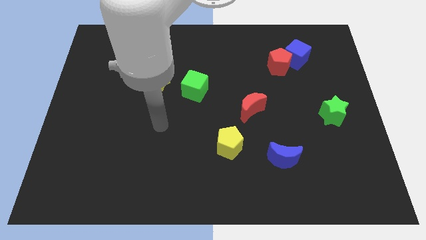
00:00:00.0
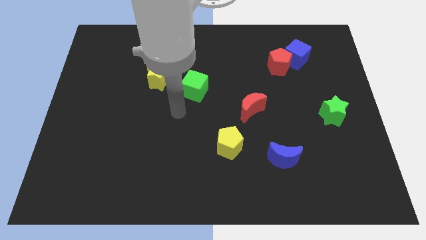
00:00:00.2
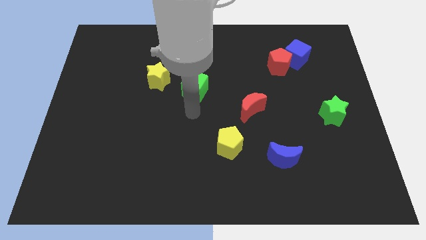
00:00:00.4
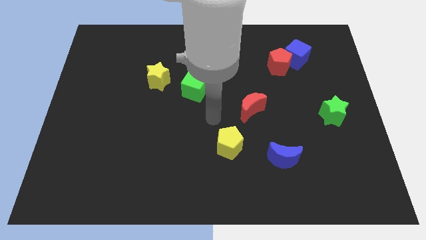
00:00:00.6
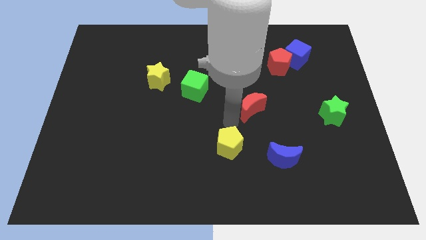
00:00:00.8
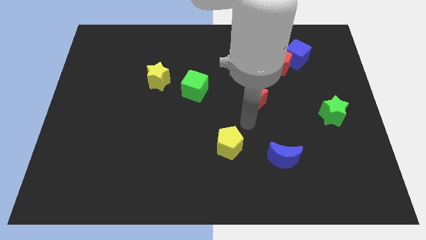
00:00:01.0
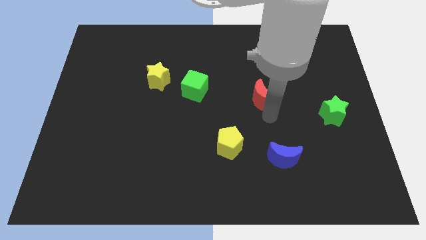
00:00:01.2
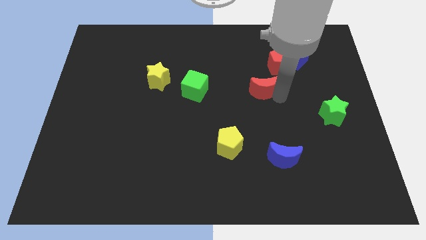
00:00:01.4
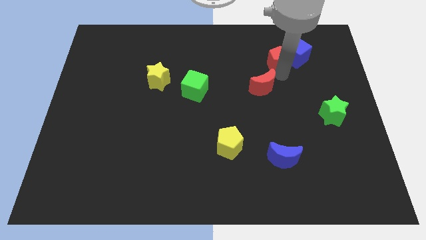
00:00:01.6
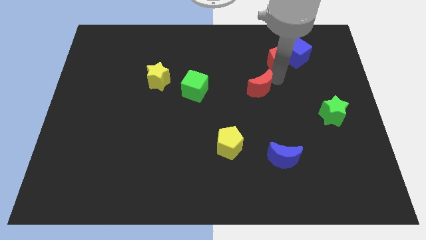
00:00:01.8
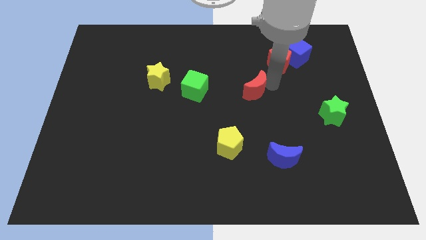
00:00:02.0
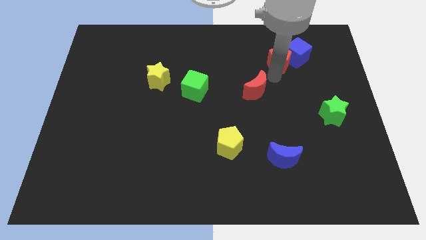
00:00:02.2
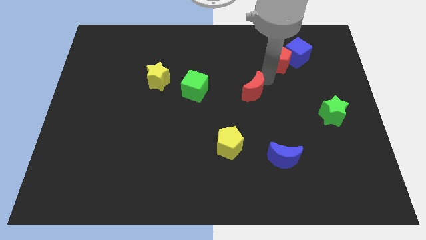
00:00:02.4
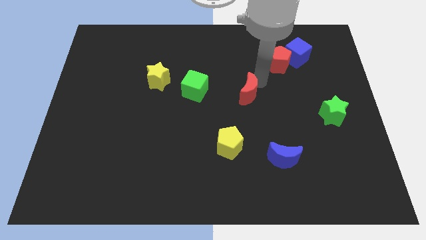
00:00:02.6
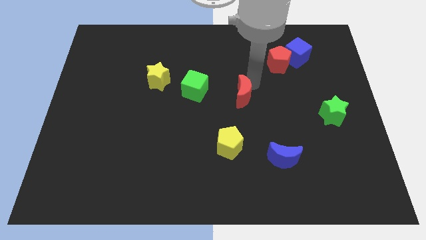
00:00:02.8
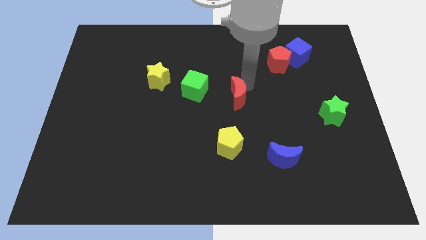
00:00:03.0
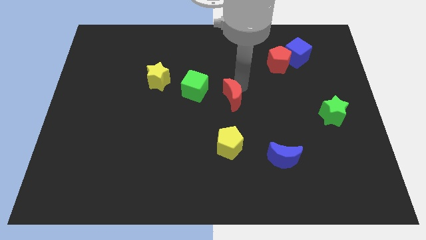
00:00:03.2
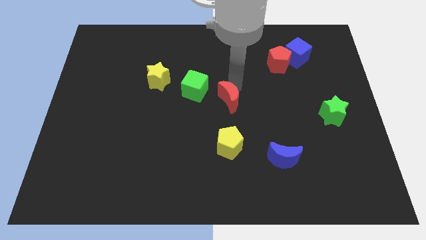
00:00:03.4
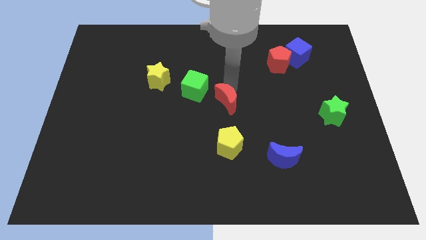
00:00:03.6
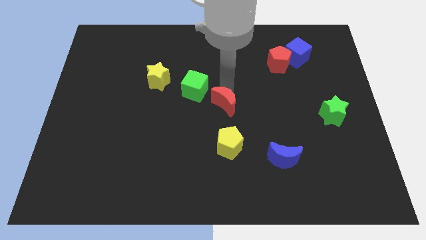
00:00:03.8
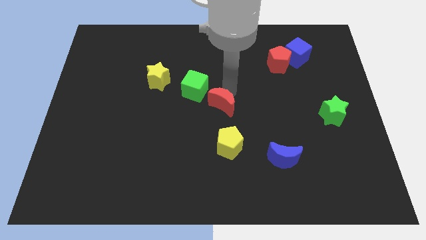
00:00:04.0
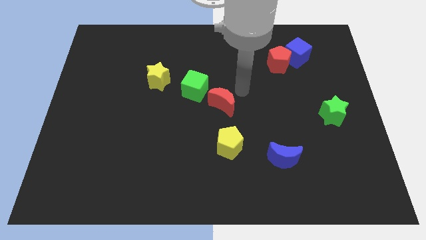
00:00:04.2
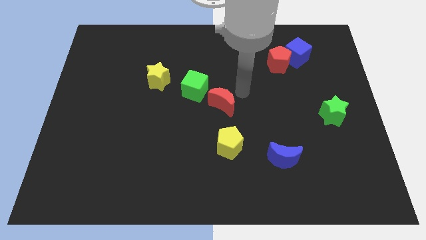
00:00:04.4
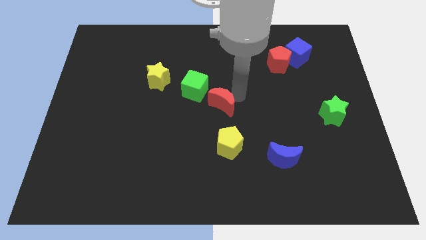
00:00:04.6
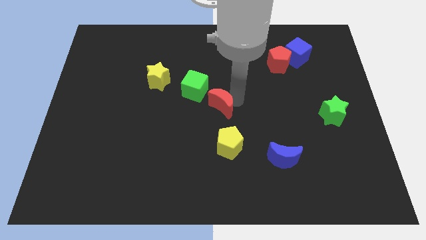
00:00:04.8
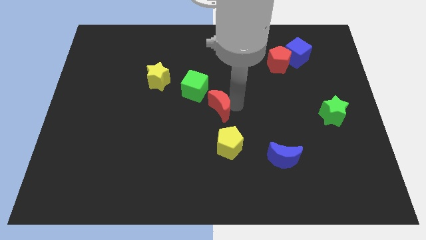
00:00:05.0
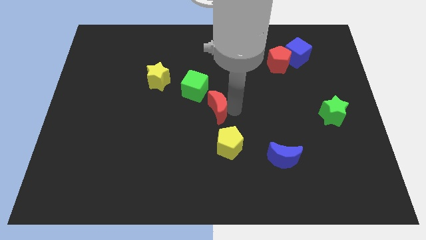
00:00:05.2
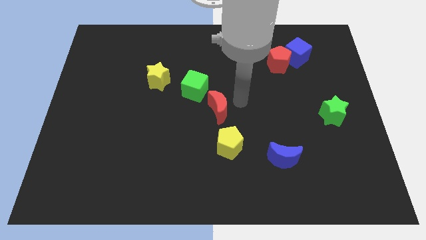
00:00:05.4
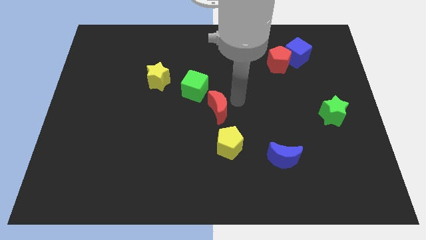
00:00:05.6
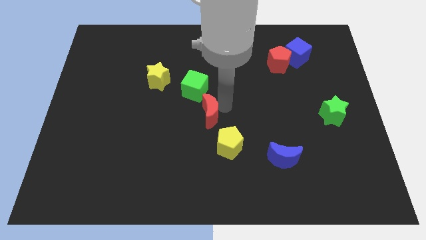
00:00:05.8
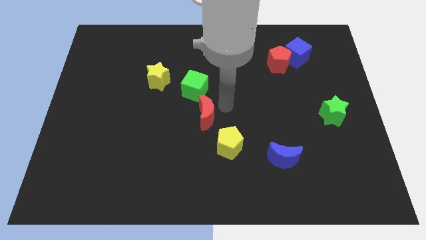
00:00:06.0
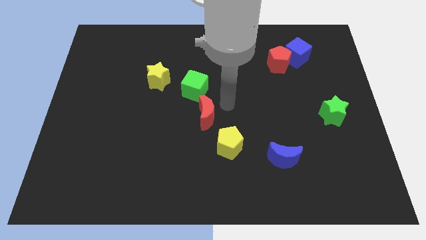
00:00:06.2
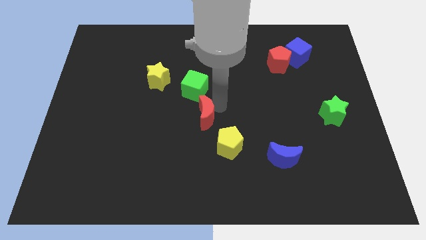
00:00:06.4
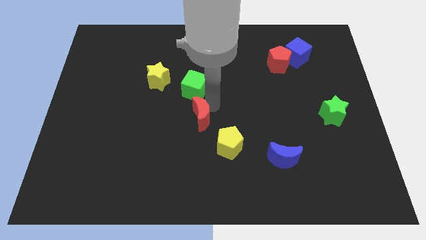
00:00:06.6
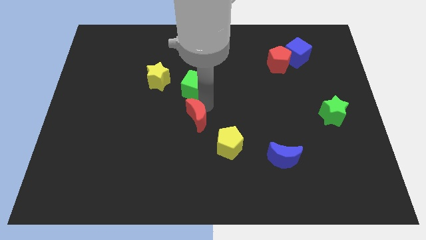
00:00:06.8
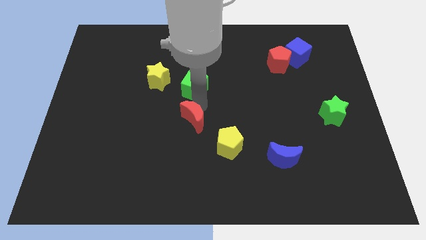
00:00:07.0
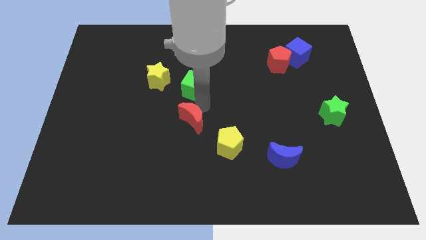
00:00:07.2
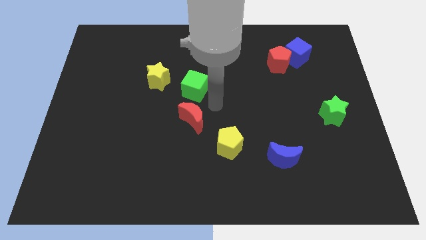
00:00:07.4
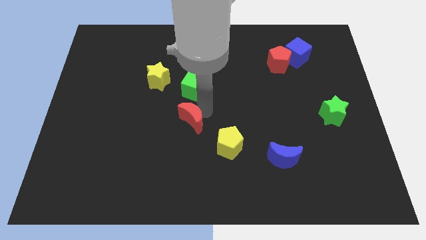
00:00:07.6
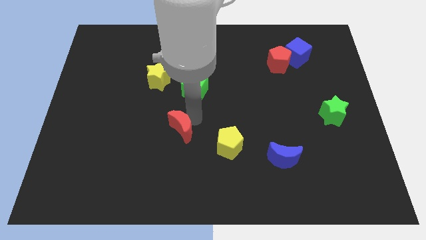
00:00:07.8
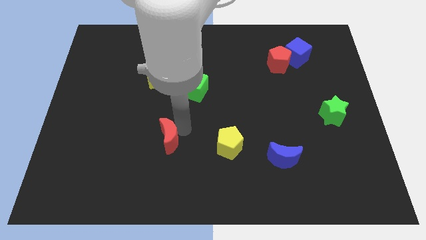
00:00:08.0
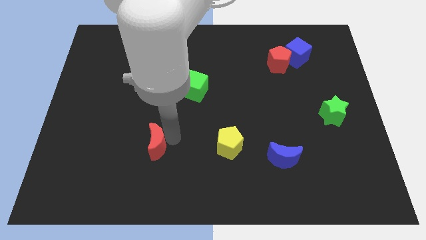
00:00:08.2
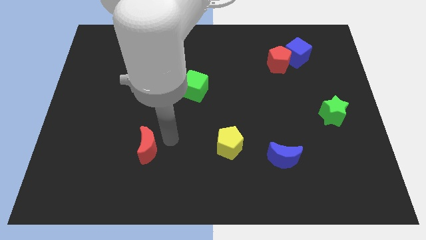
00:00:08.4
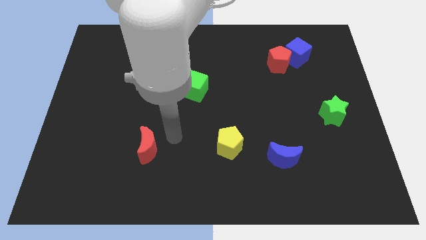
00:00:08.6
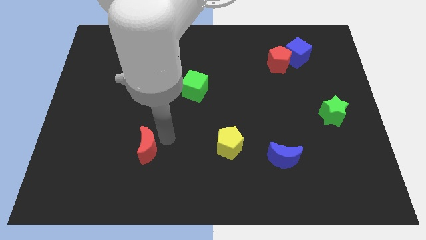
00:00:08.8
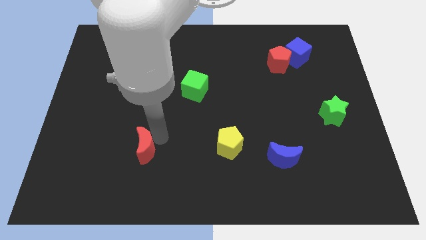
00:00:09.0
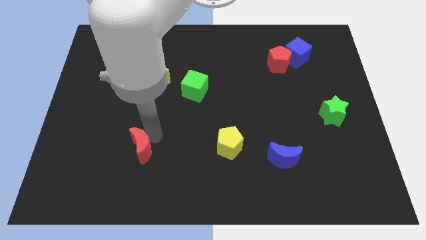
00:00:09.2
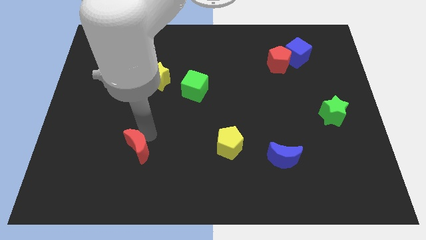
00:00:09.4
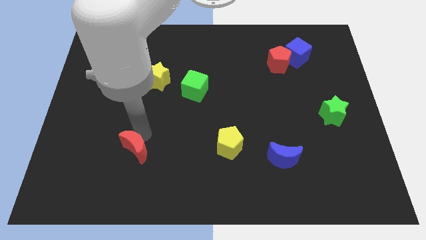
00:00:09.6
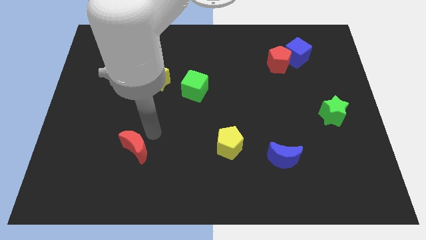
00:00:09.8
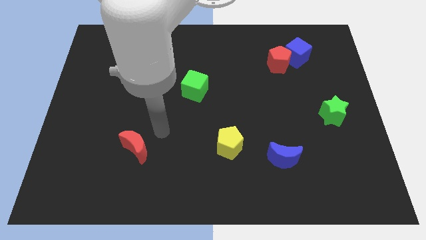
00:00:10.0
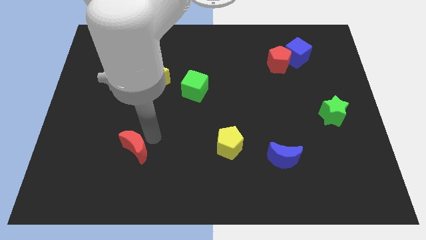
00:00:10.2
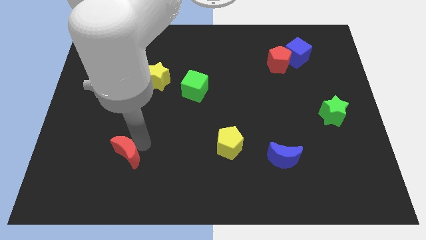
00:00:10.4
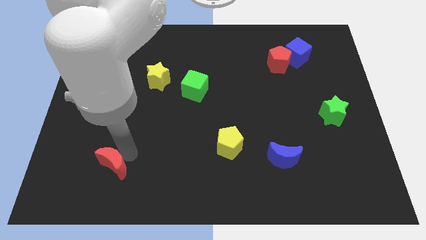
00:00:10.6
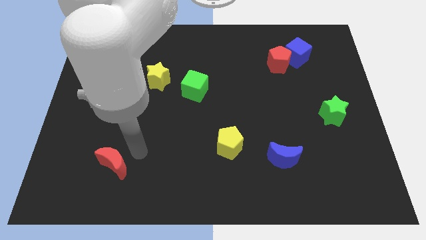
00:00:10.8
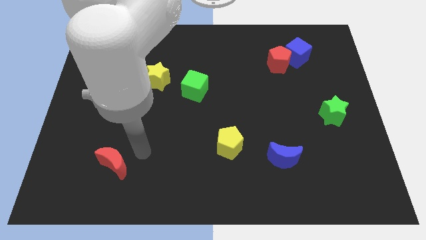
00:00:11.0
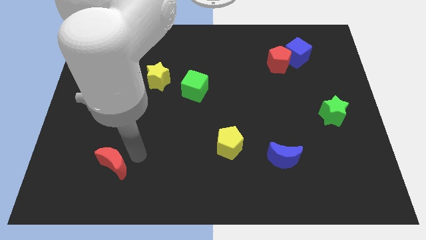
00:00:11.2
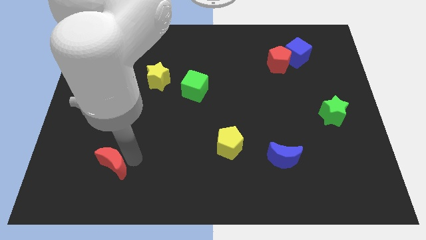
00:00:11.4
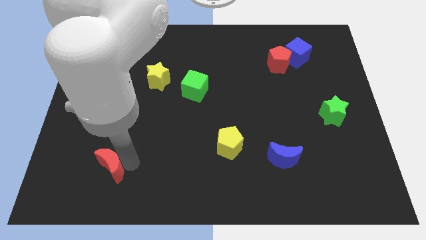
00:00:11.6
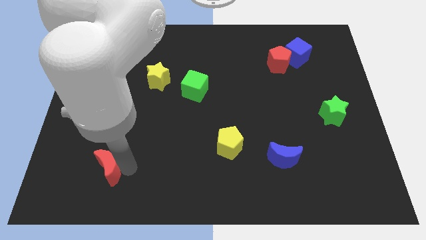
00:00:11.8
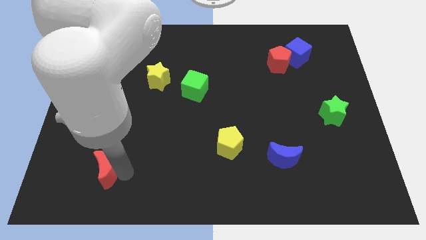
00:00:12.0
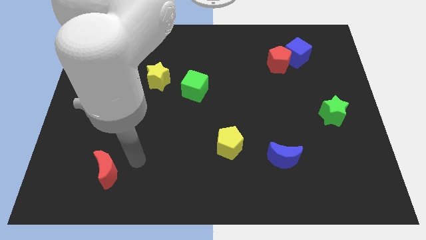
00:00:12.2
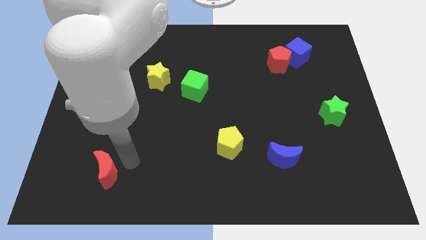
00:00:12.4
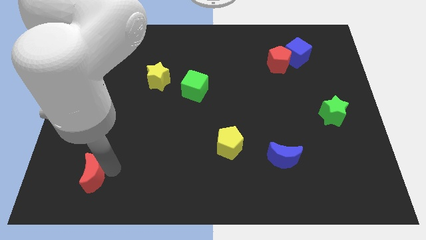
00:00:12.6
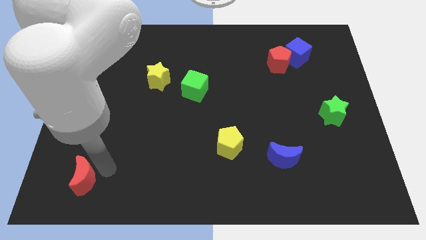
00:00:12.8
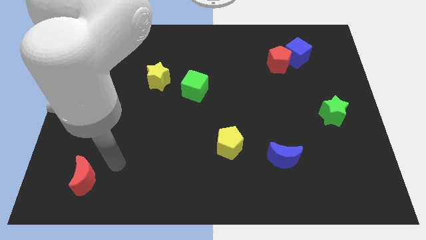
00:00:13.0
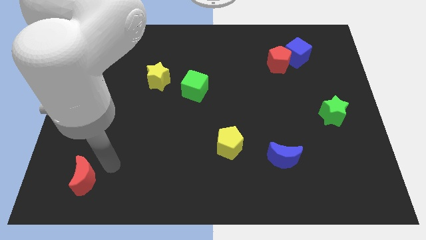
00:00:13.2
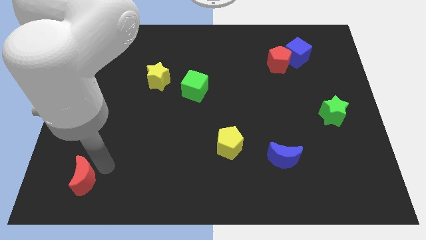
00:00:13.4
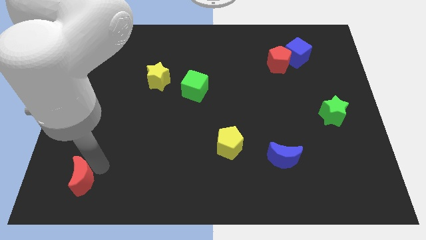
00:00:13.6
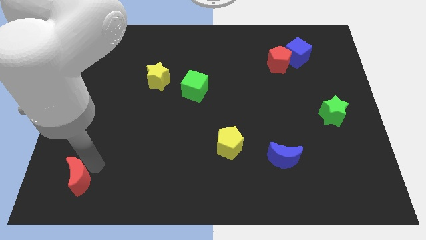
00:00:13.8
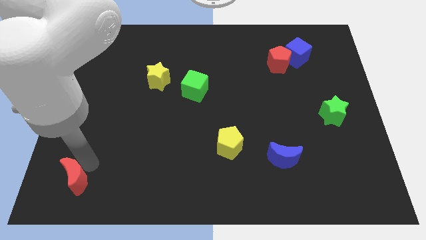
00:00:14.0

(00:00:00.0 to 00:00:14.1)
put the red moon to the bottom left
